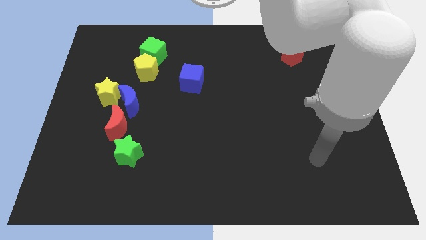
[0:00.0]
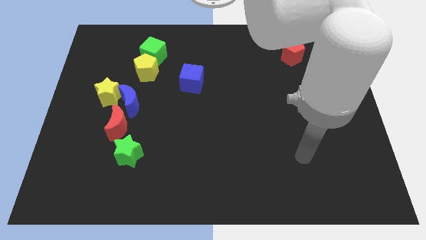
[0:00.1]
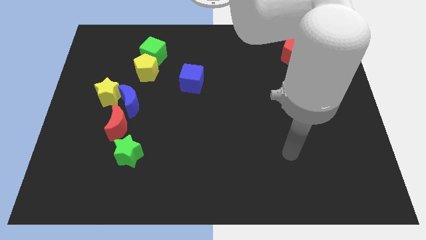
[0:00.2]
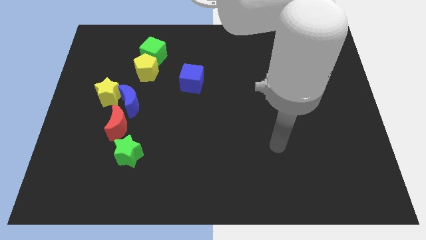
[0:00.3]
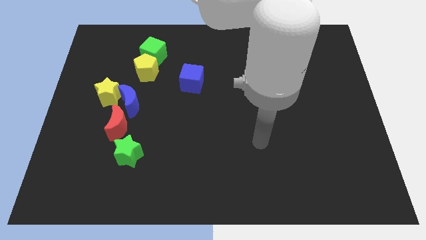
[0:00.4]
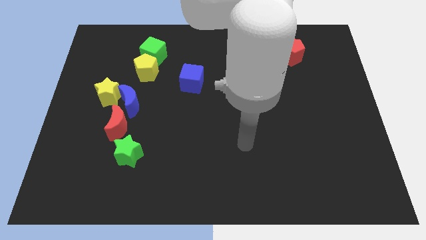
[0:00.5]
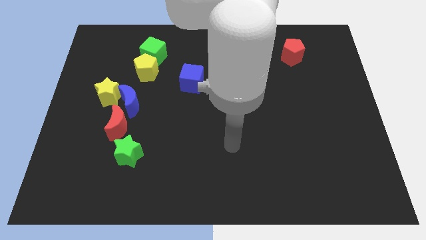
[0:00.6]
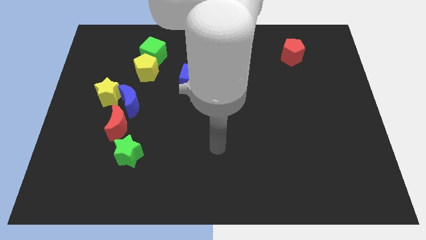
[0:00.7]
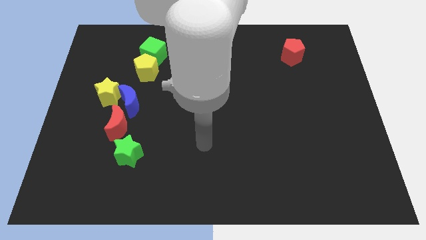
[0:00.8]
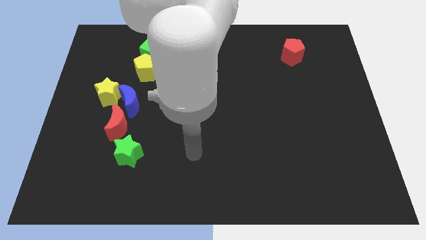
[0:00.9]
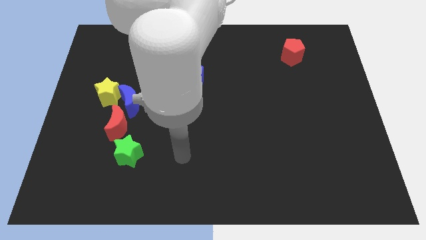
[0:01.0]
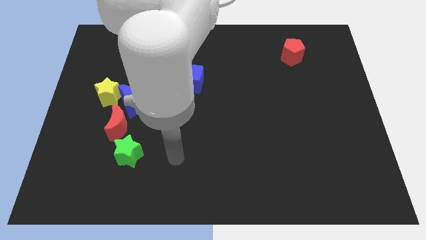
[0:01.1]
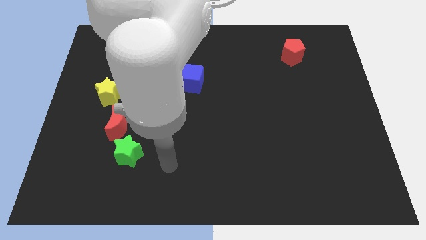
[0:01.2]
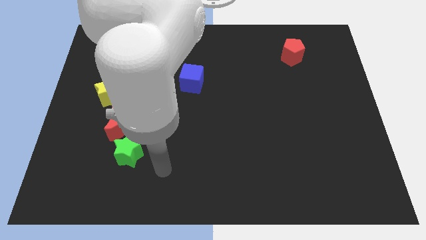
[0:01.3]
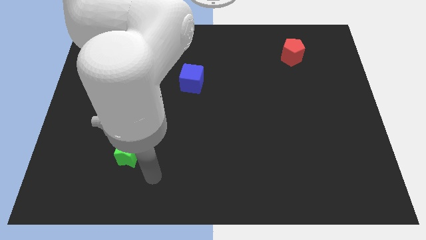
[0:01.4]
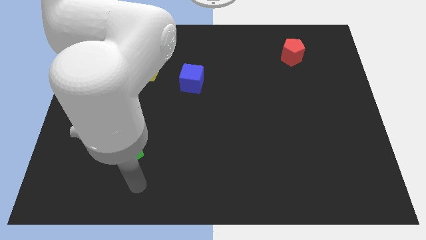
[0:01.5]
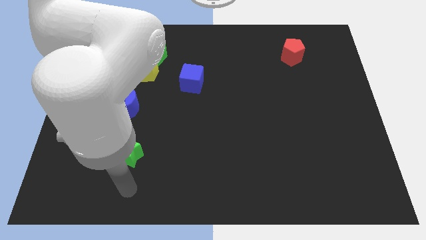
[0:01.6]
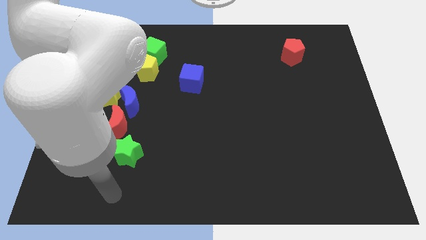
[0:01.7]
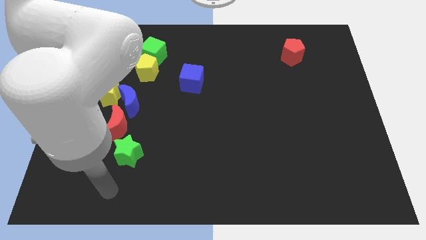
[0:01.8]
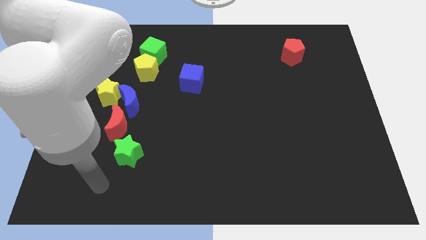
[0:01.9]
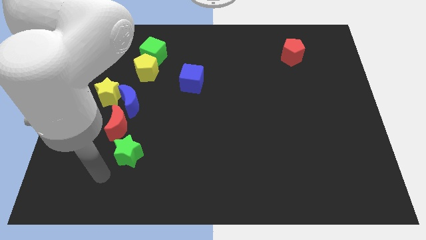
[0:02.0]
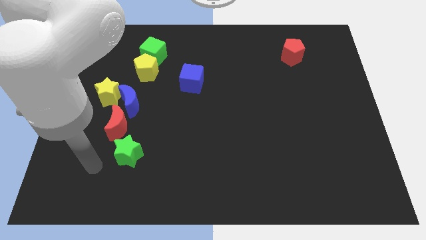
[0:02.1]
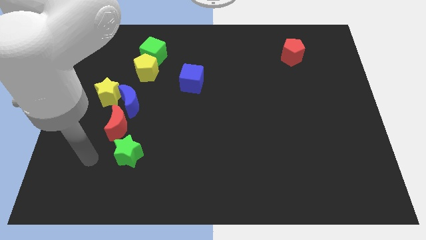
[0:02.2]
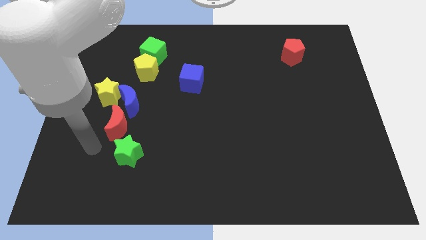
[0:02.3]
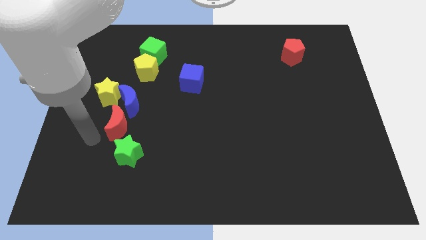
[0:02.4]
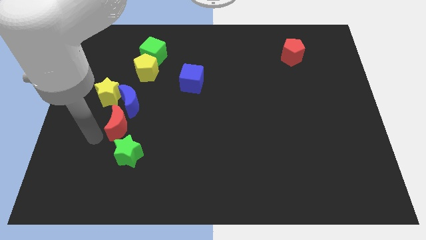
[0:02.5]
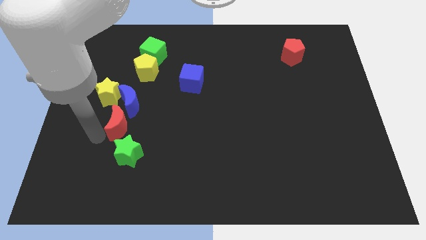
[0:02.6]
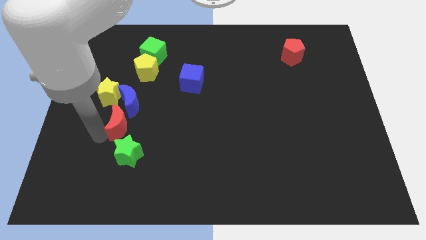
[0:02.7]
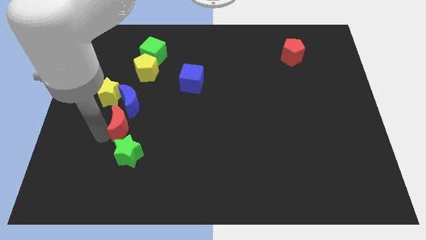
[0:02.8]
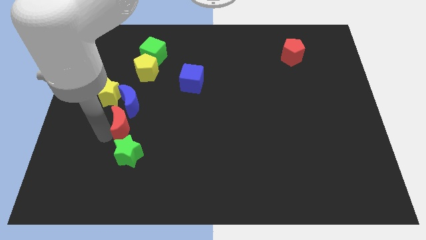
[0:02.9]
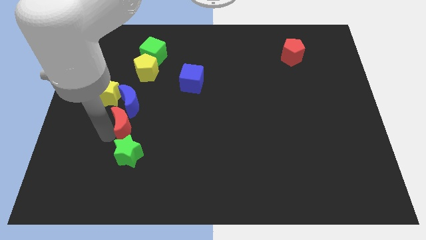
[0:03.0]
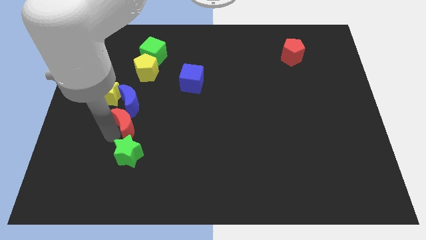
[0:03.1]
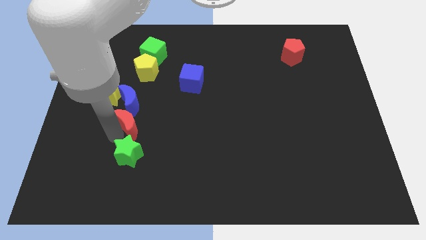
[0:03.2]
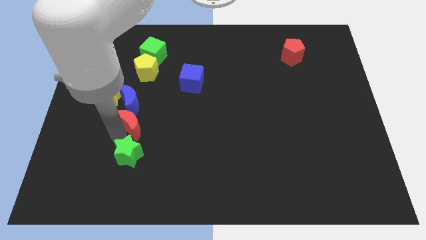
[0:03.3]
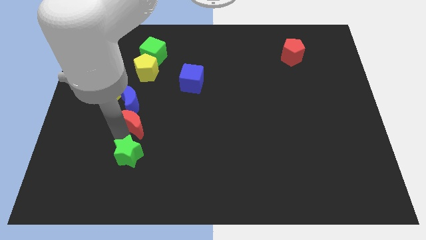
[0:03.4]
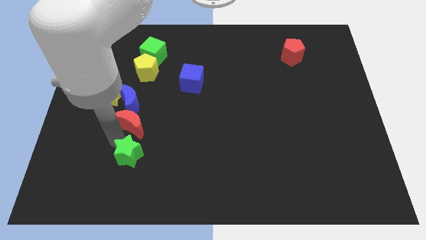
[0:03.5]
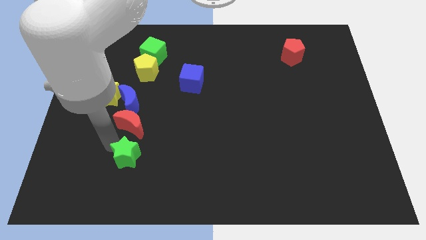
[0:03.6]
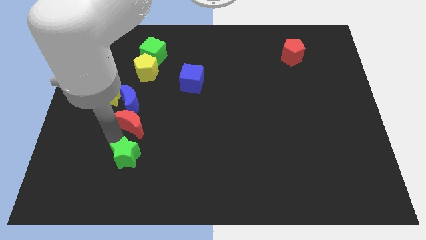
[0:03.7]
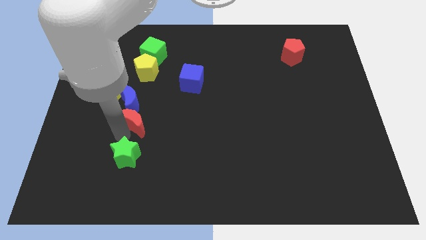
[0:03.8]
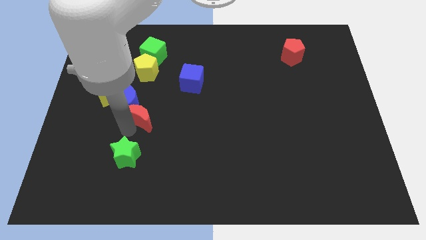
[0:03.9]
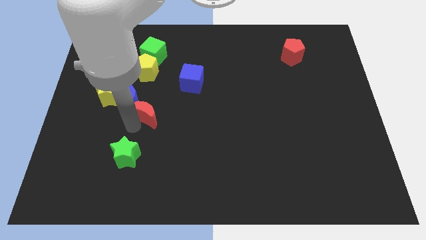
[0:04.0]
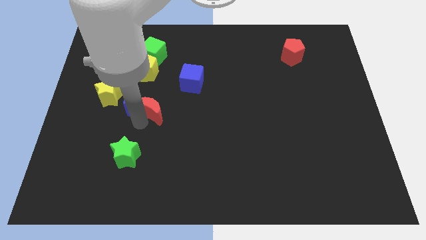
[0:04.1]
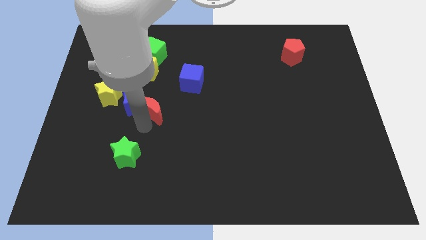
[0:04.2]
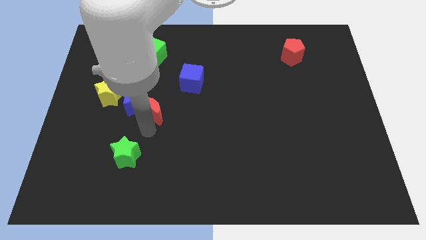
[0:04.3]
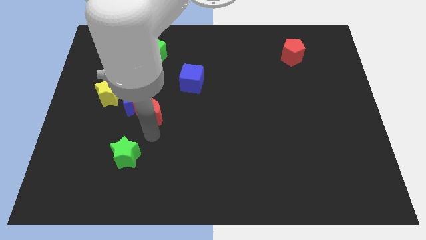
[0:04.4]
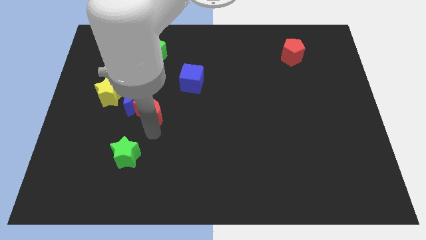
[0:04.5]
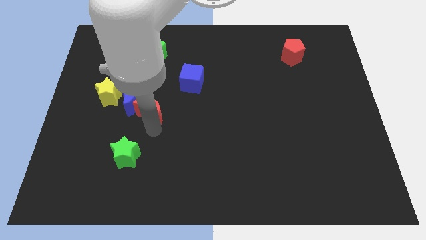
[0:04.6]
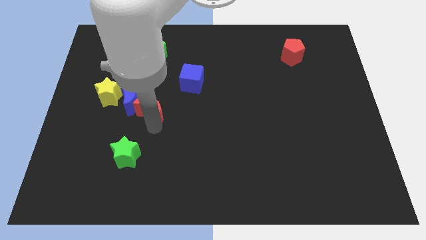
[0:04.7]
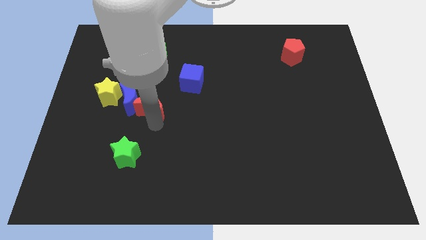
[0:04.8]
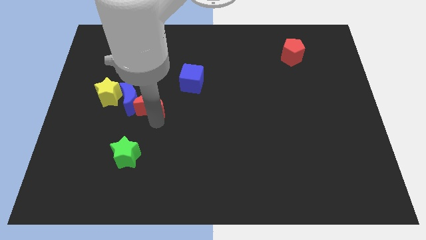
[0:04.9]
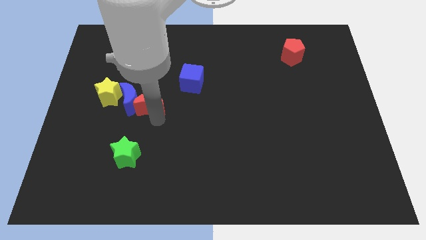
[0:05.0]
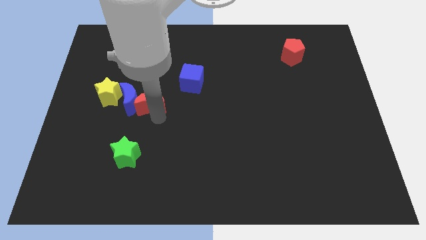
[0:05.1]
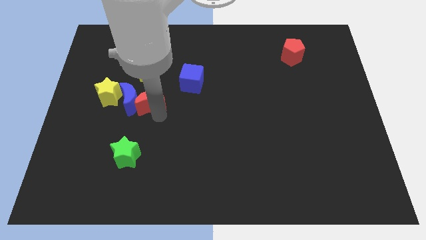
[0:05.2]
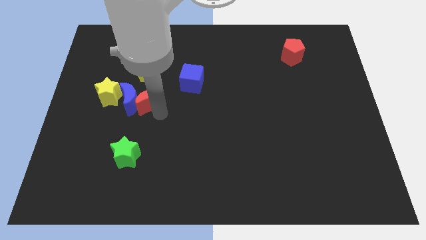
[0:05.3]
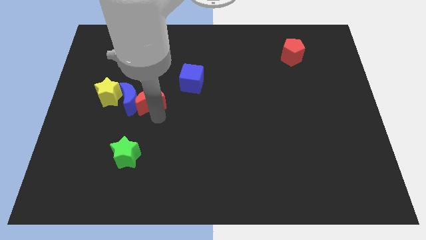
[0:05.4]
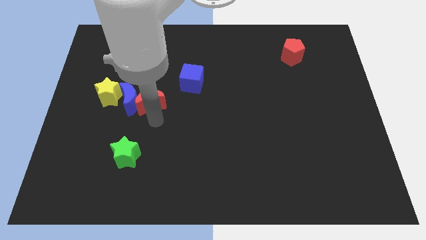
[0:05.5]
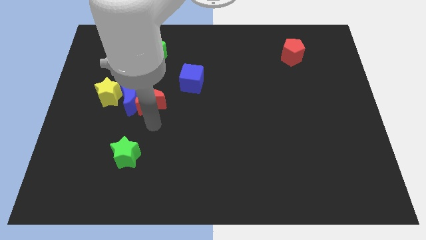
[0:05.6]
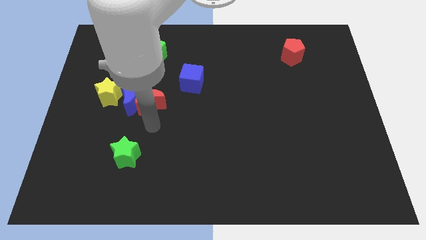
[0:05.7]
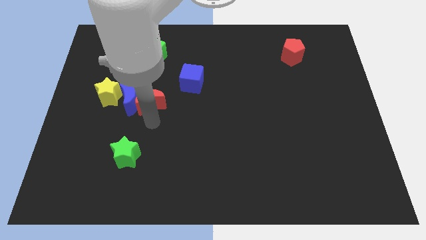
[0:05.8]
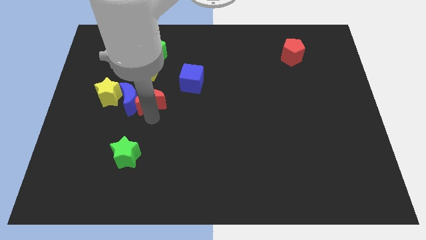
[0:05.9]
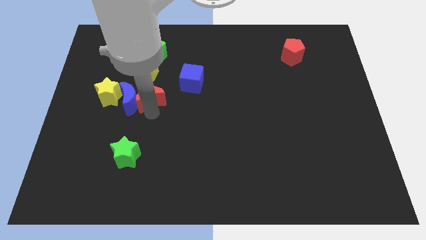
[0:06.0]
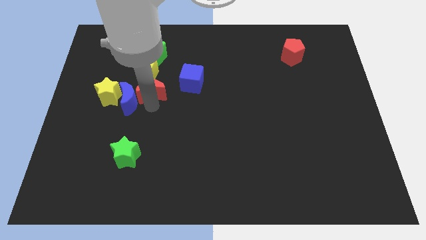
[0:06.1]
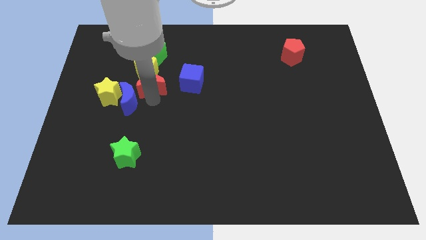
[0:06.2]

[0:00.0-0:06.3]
move the red moon close to the yellow pentagon

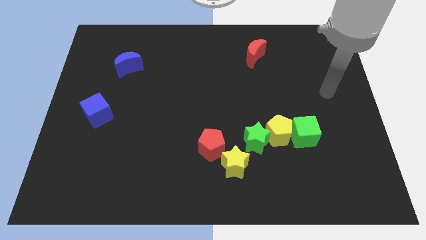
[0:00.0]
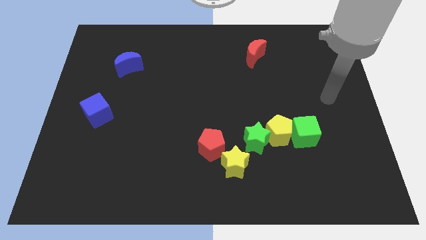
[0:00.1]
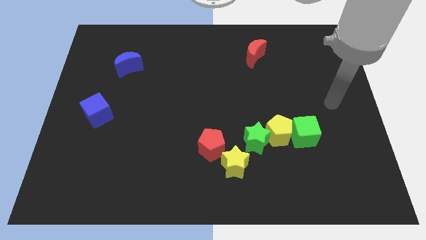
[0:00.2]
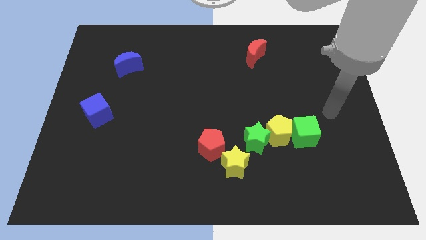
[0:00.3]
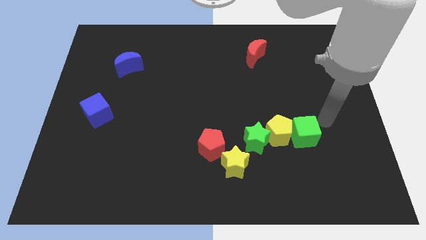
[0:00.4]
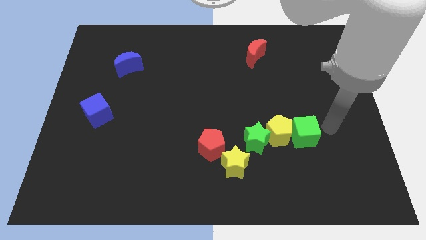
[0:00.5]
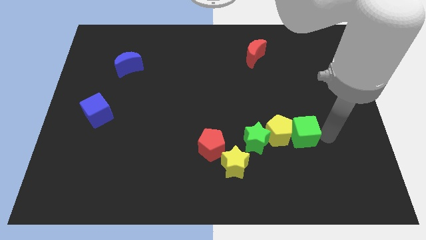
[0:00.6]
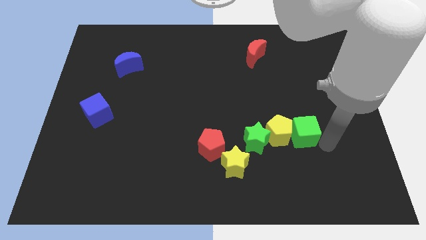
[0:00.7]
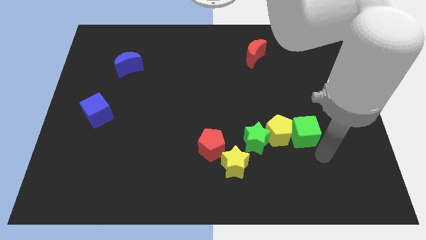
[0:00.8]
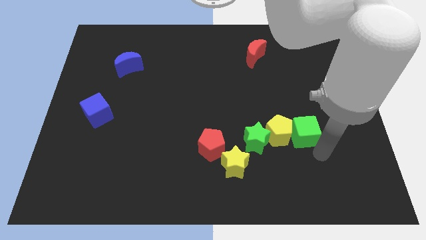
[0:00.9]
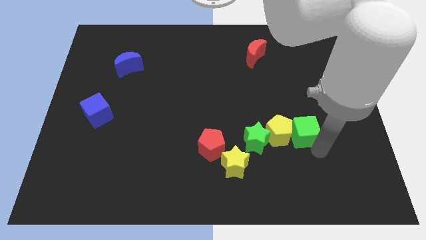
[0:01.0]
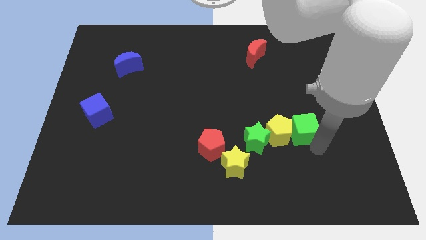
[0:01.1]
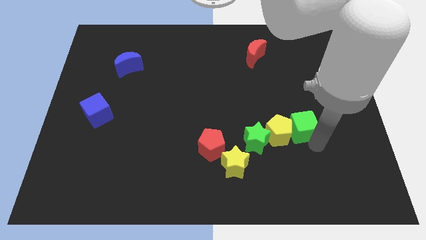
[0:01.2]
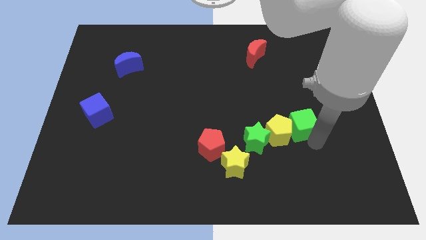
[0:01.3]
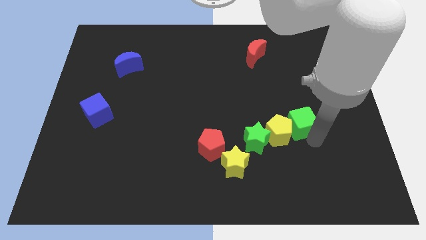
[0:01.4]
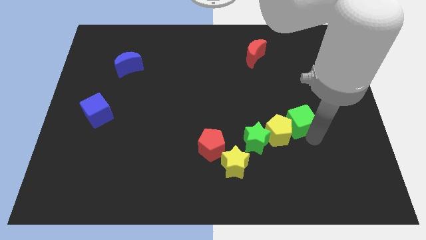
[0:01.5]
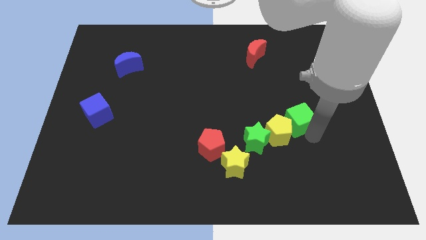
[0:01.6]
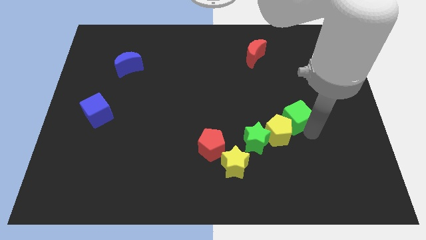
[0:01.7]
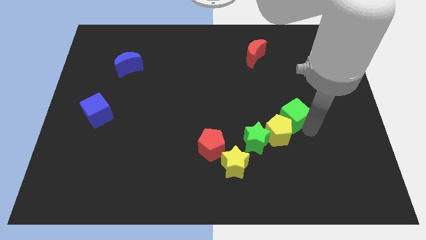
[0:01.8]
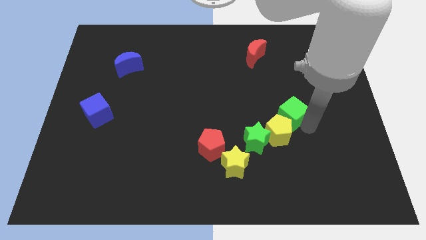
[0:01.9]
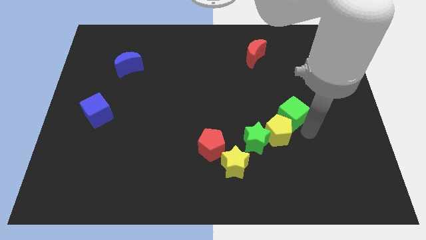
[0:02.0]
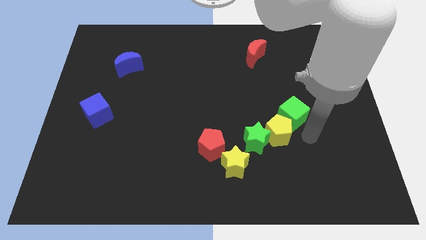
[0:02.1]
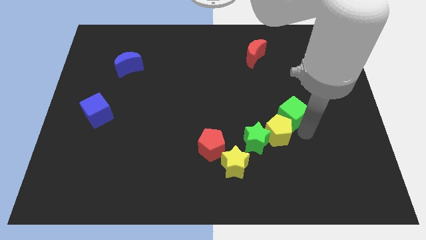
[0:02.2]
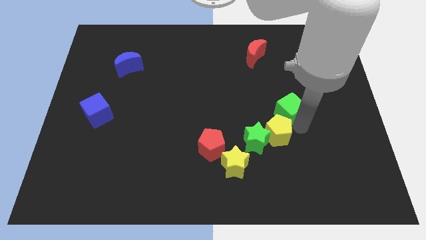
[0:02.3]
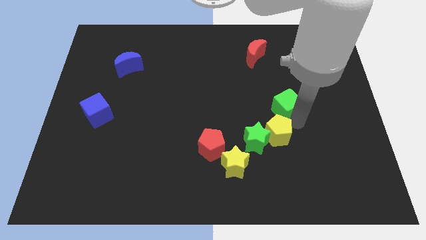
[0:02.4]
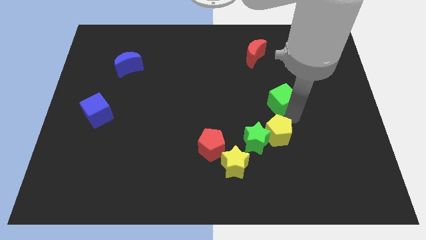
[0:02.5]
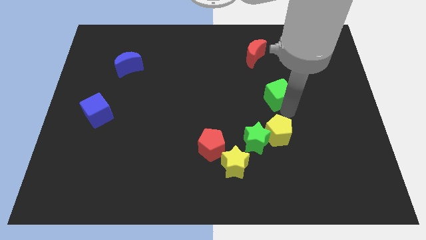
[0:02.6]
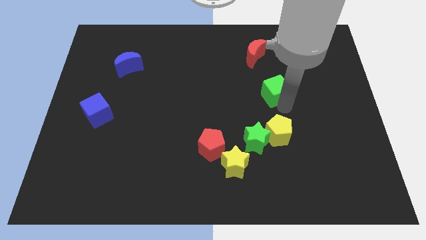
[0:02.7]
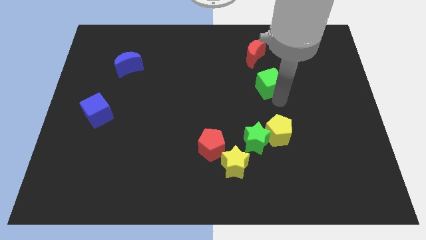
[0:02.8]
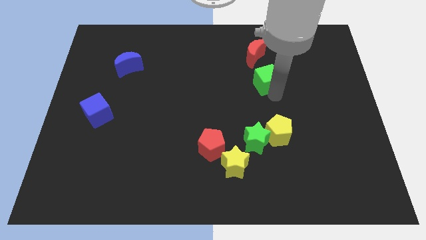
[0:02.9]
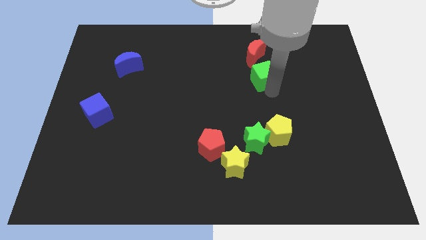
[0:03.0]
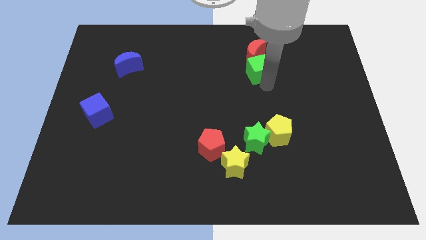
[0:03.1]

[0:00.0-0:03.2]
push the green cube to the red moon
